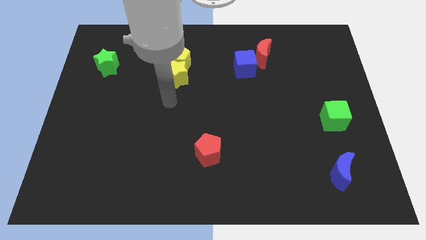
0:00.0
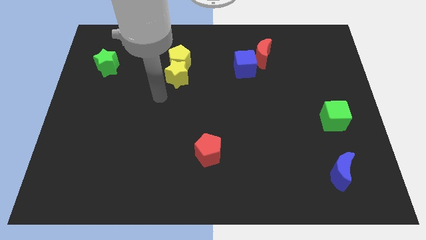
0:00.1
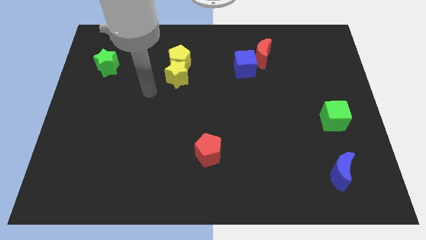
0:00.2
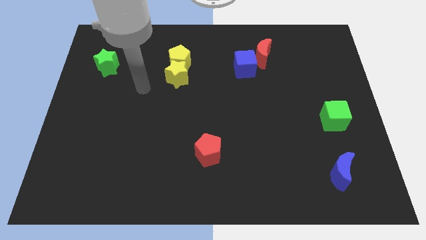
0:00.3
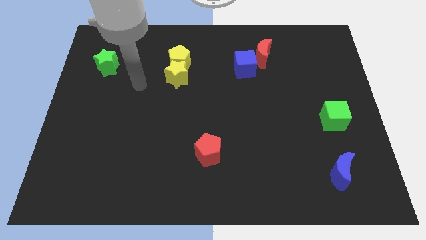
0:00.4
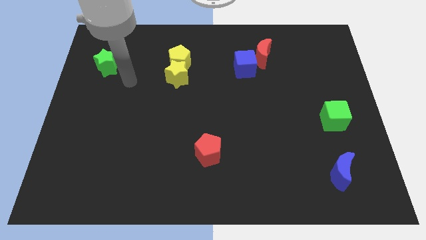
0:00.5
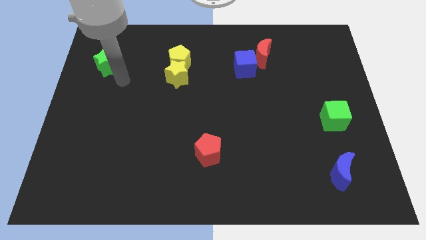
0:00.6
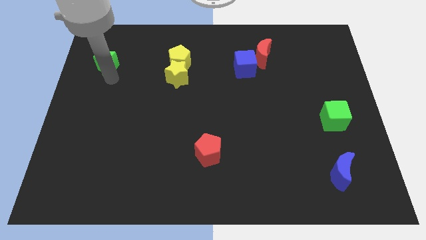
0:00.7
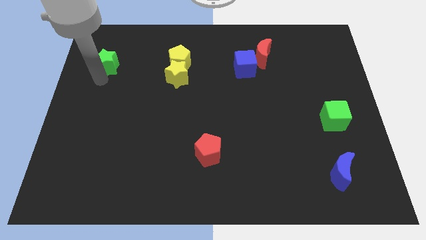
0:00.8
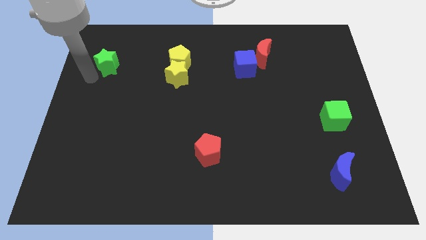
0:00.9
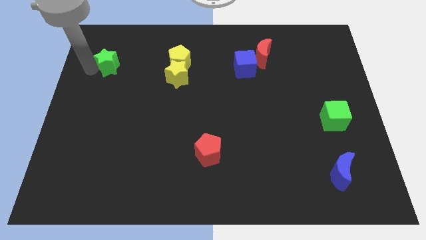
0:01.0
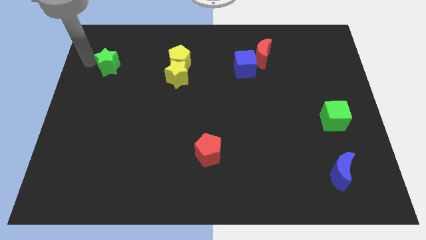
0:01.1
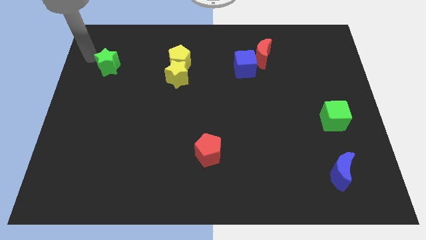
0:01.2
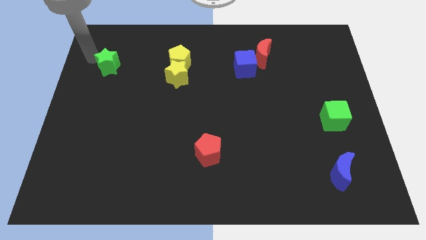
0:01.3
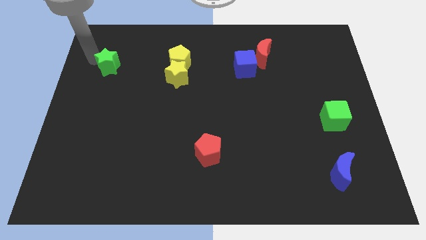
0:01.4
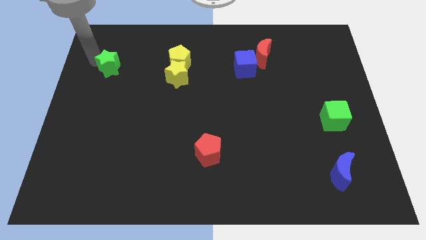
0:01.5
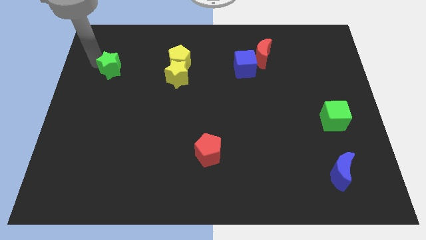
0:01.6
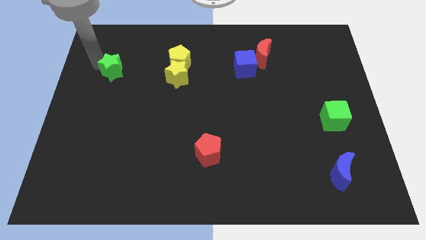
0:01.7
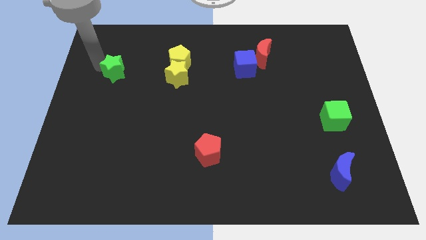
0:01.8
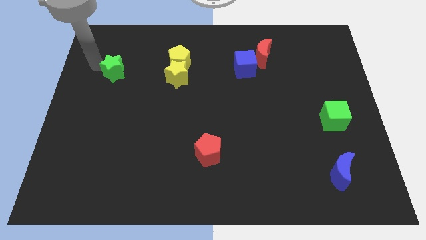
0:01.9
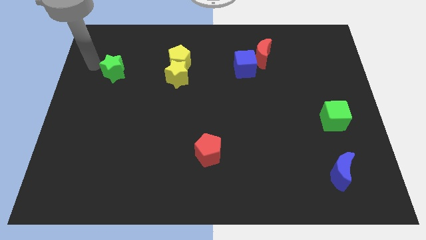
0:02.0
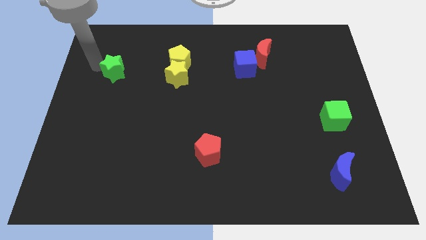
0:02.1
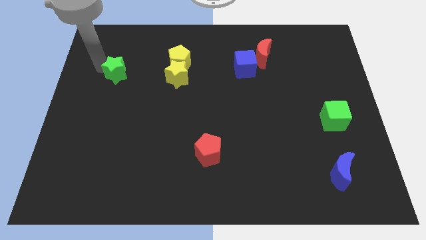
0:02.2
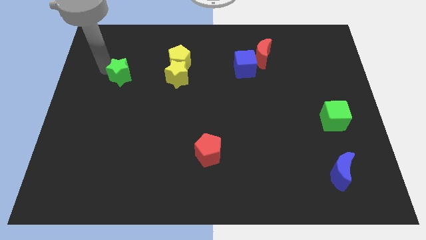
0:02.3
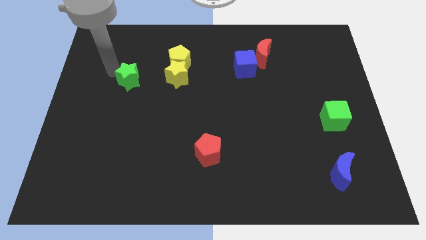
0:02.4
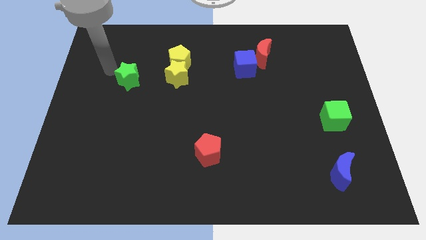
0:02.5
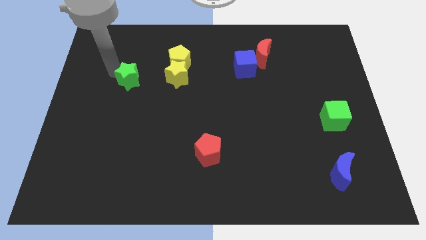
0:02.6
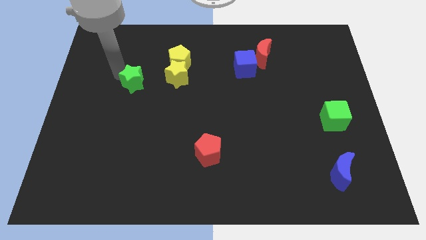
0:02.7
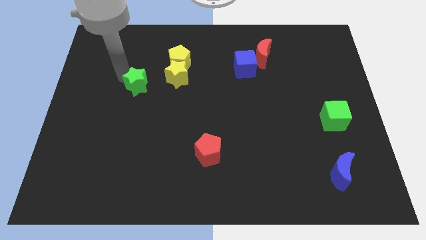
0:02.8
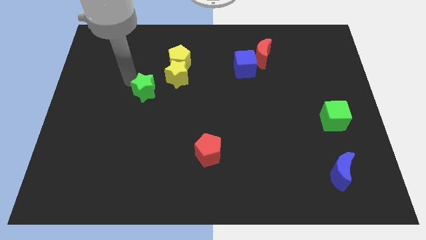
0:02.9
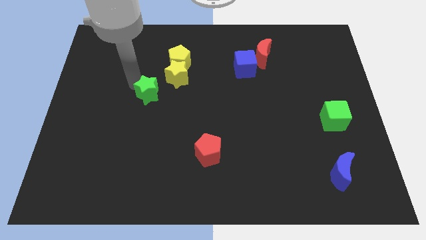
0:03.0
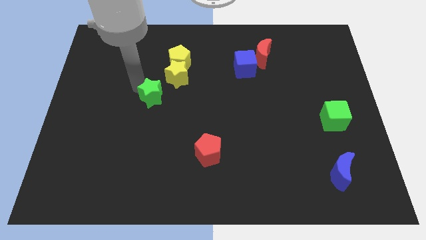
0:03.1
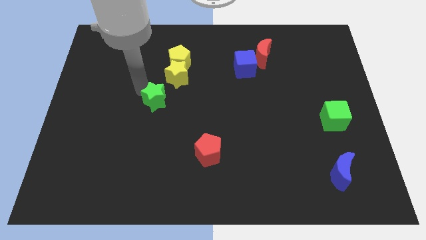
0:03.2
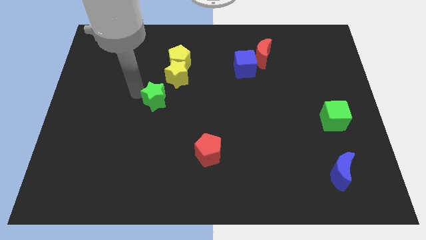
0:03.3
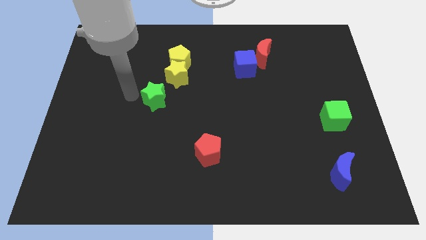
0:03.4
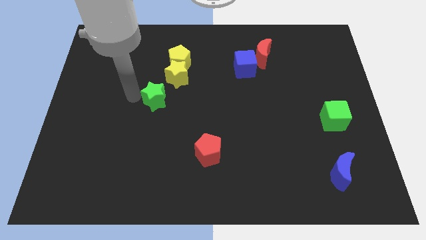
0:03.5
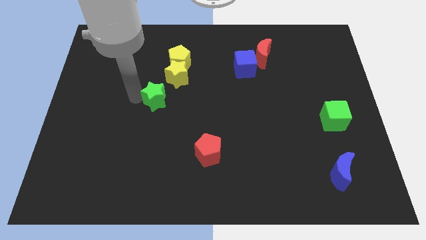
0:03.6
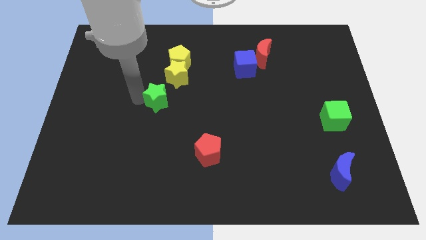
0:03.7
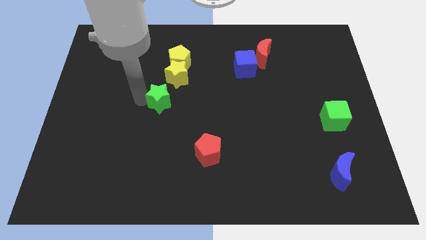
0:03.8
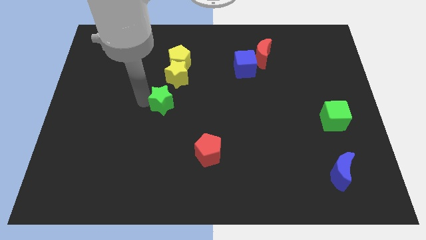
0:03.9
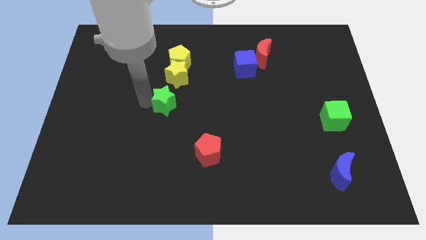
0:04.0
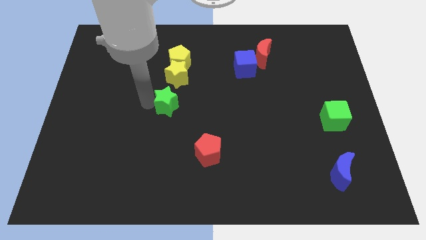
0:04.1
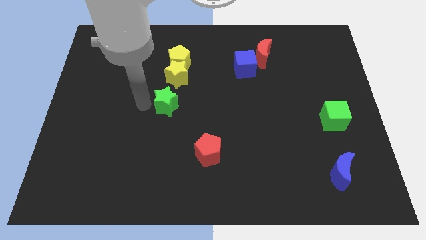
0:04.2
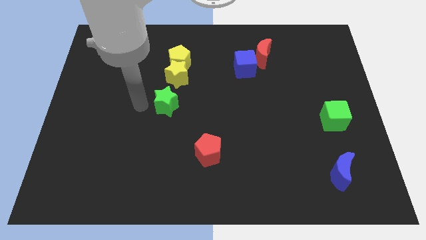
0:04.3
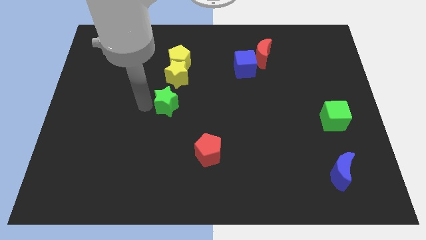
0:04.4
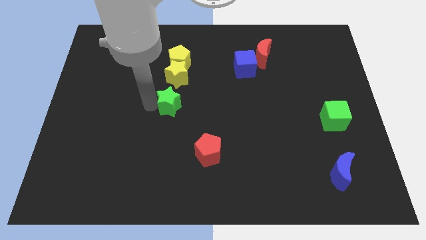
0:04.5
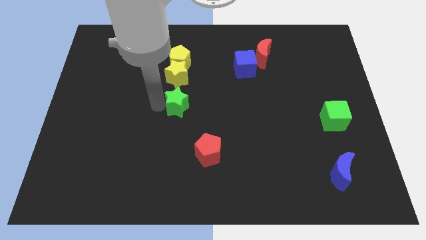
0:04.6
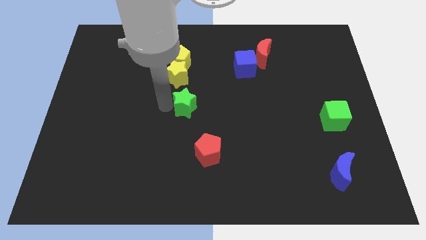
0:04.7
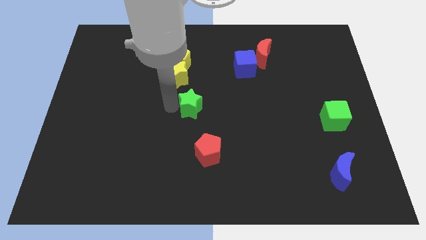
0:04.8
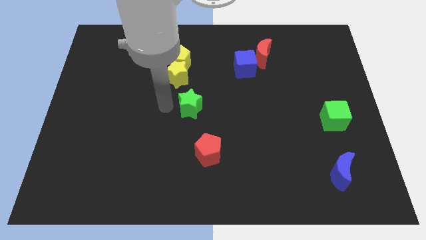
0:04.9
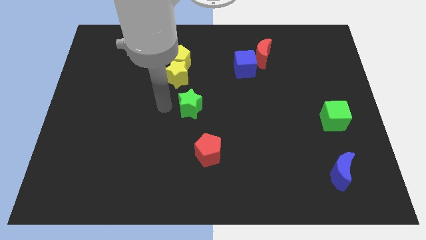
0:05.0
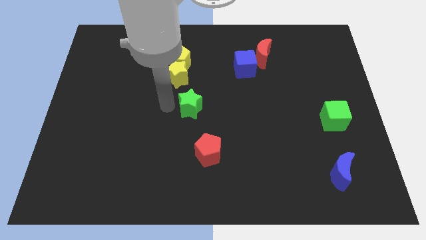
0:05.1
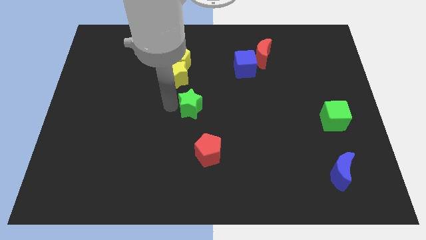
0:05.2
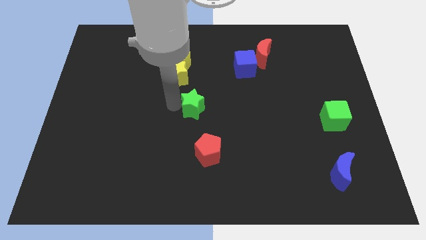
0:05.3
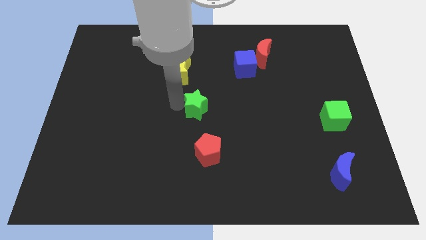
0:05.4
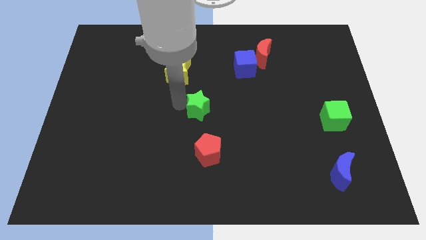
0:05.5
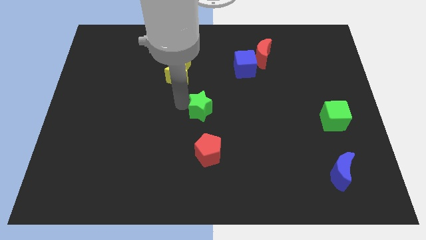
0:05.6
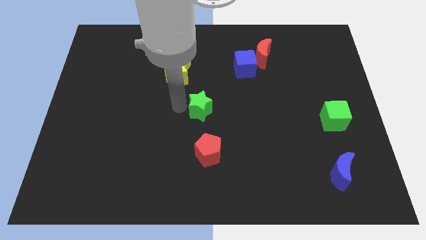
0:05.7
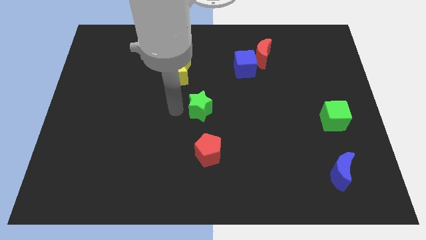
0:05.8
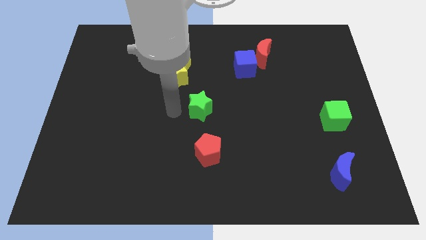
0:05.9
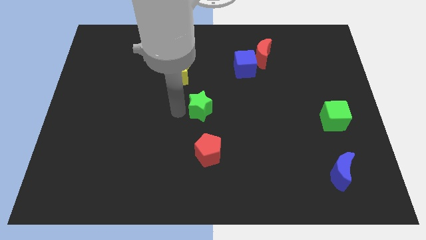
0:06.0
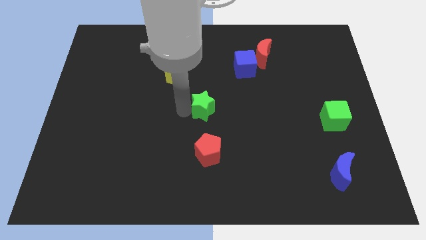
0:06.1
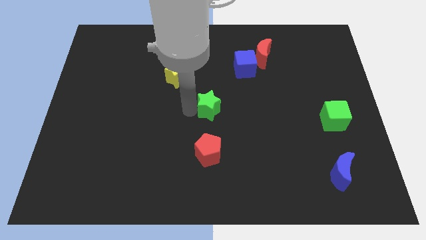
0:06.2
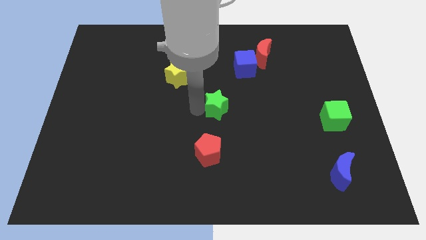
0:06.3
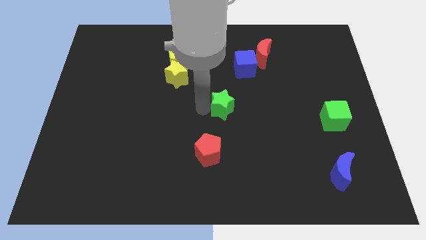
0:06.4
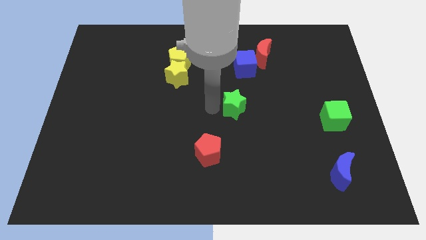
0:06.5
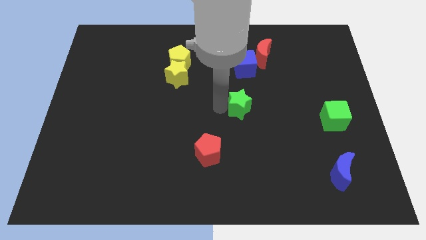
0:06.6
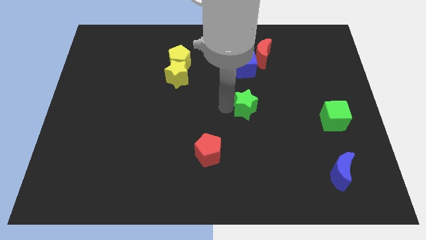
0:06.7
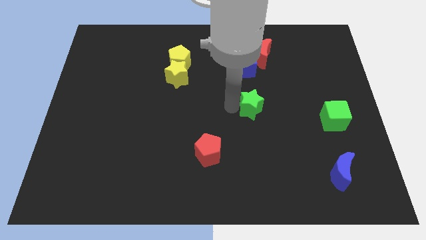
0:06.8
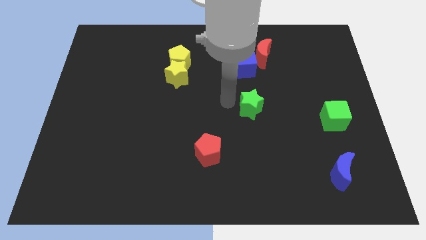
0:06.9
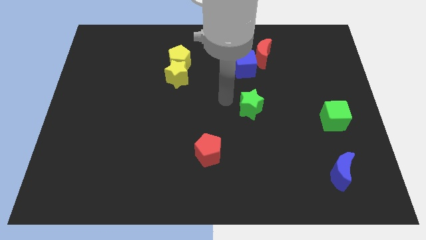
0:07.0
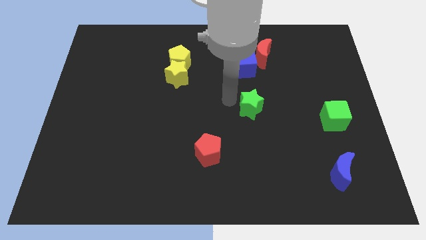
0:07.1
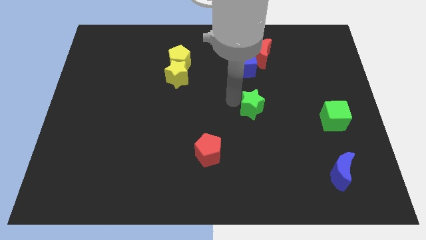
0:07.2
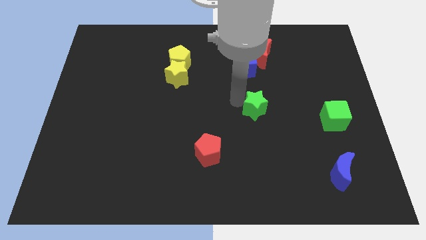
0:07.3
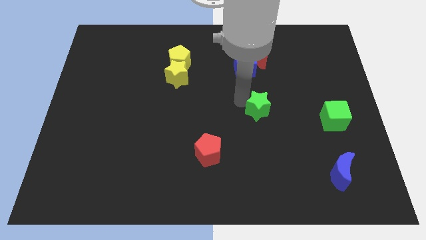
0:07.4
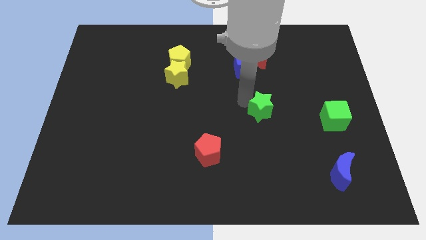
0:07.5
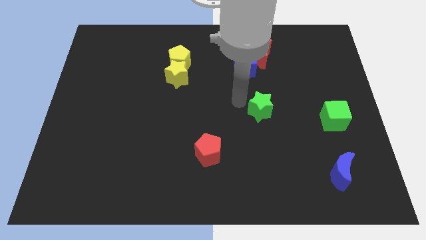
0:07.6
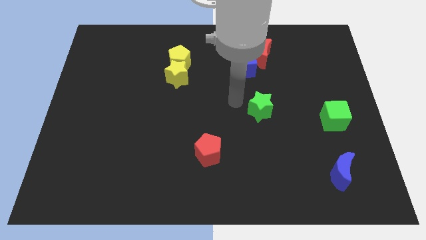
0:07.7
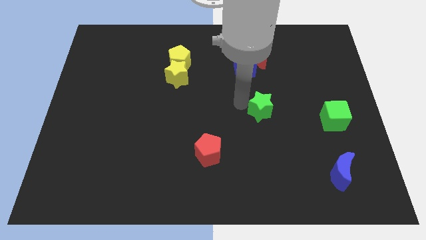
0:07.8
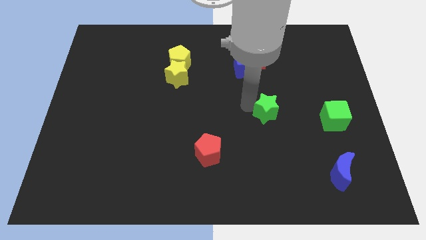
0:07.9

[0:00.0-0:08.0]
move the green star just left of the green cube
